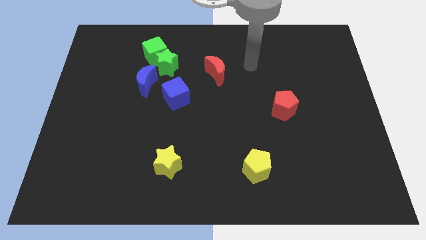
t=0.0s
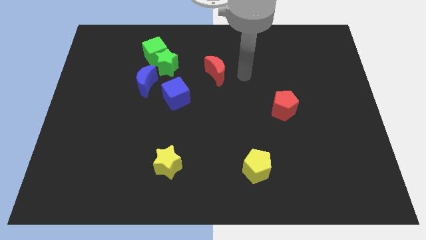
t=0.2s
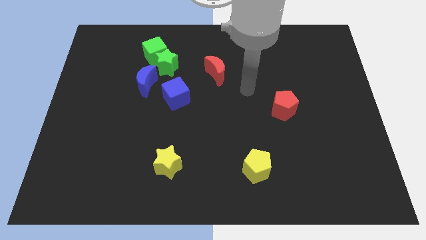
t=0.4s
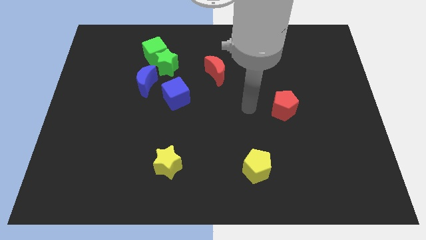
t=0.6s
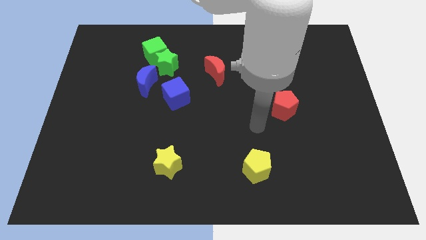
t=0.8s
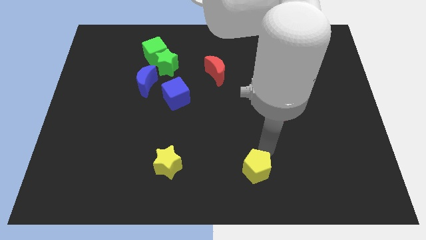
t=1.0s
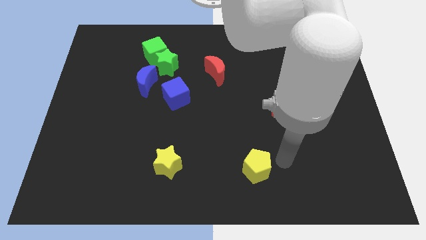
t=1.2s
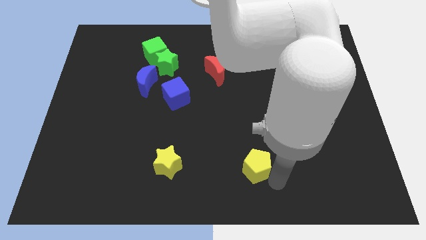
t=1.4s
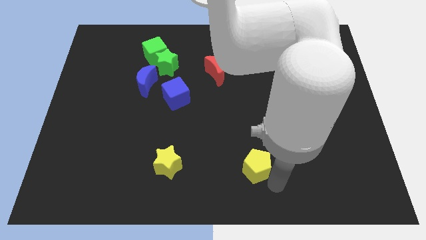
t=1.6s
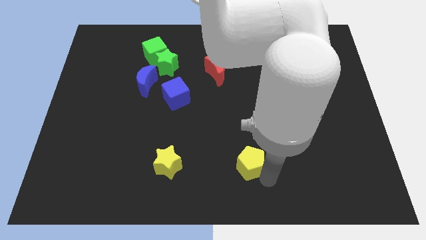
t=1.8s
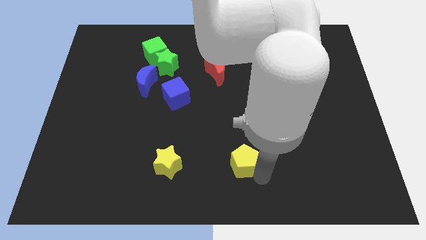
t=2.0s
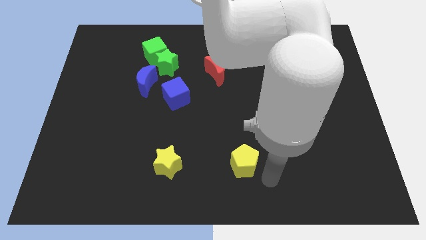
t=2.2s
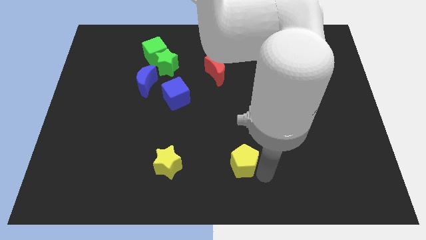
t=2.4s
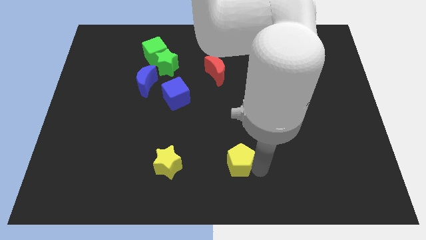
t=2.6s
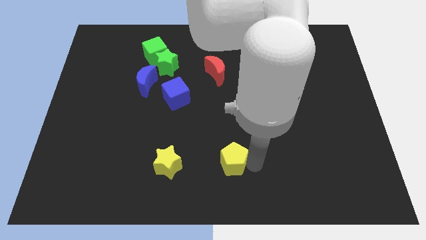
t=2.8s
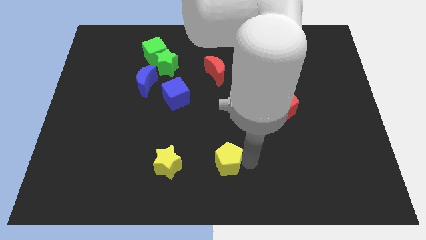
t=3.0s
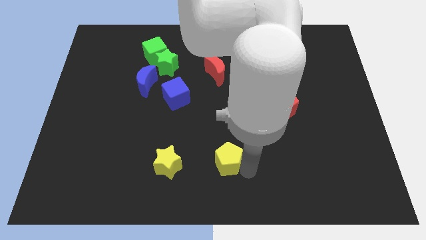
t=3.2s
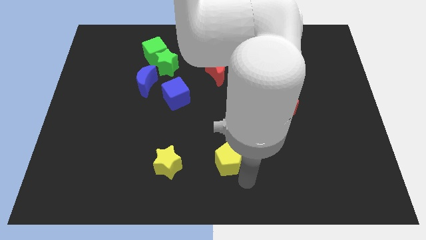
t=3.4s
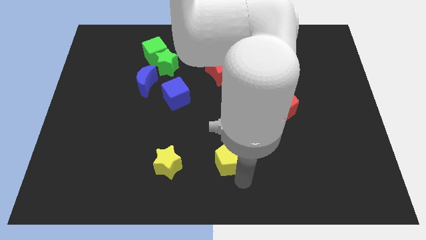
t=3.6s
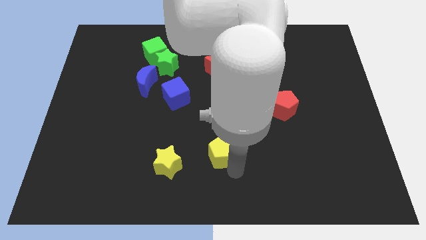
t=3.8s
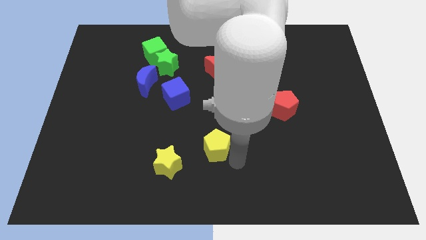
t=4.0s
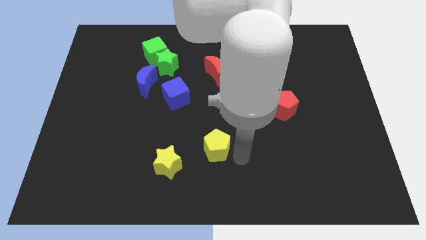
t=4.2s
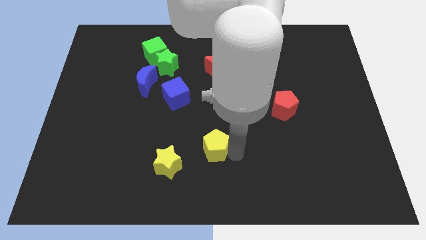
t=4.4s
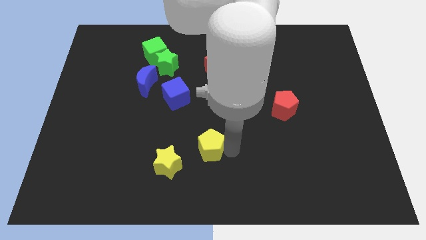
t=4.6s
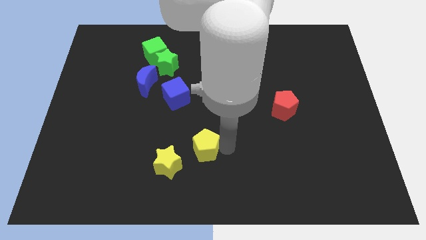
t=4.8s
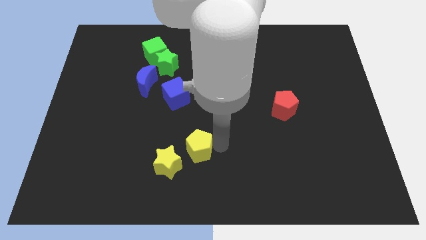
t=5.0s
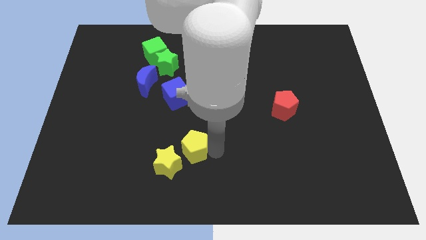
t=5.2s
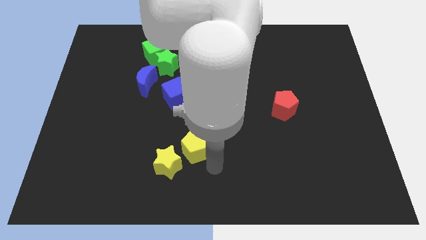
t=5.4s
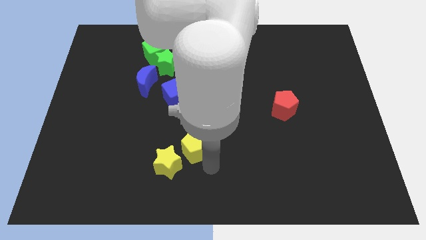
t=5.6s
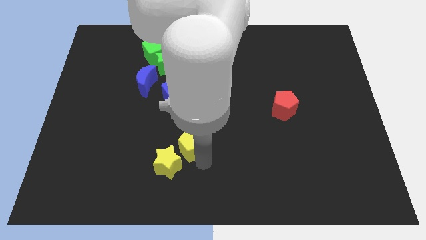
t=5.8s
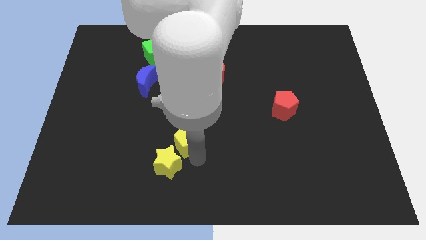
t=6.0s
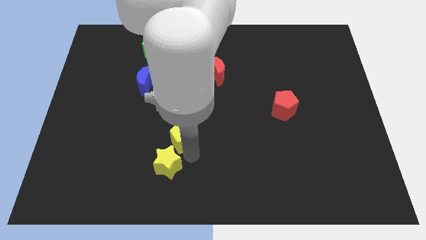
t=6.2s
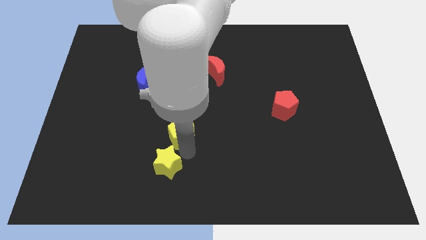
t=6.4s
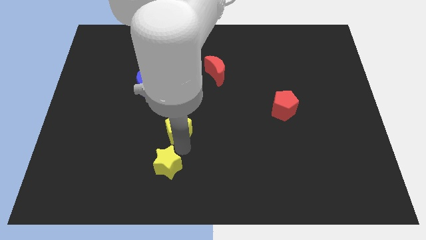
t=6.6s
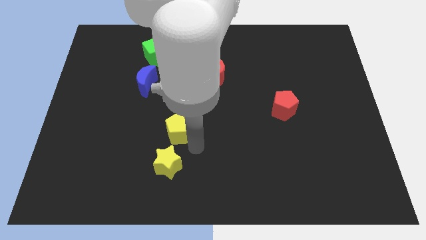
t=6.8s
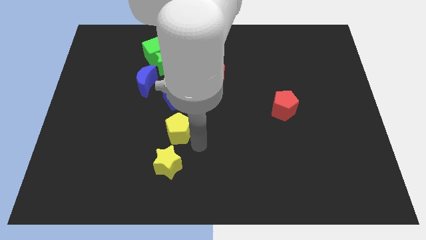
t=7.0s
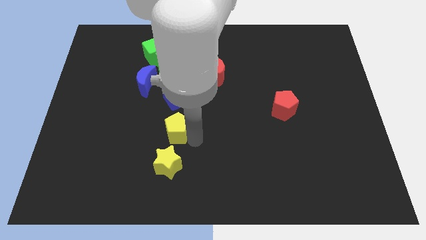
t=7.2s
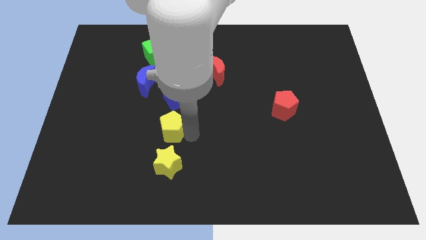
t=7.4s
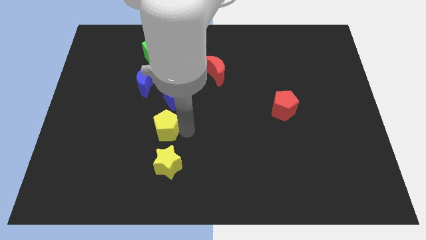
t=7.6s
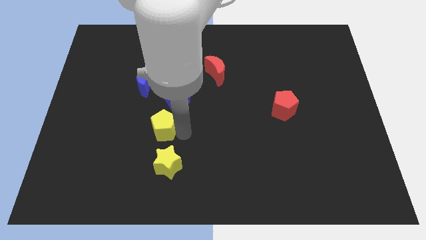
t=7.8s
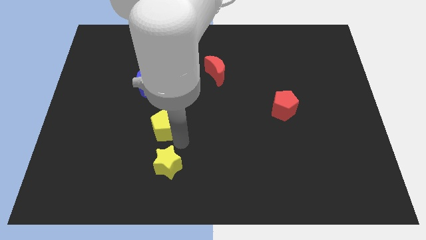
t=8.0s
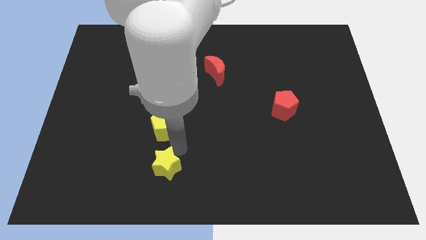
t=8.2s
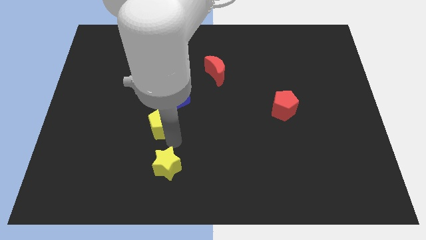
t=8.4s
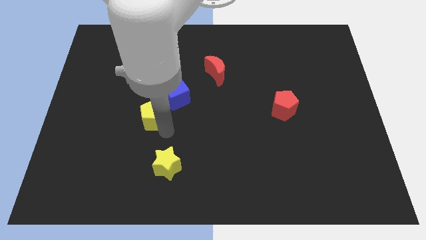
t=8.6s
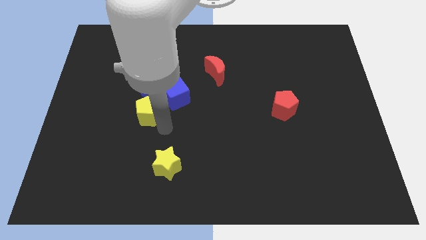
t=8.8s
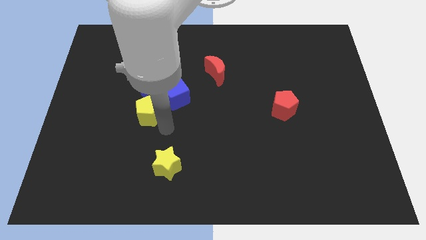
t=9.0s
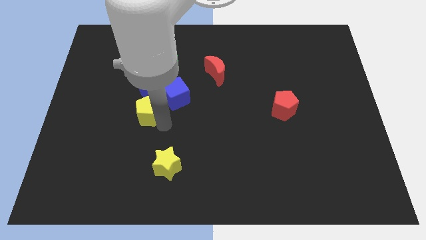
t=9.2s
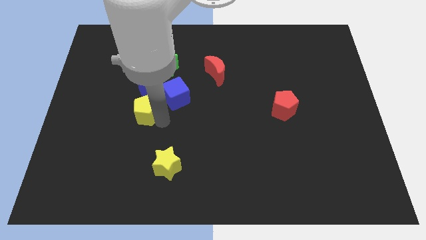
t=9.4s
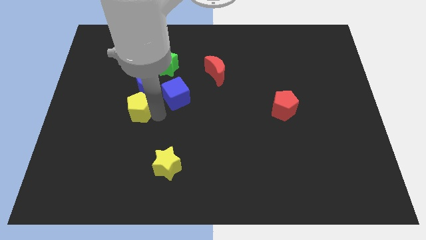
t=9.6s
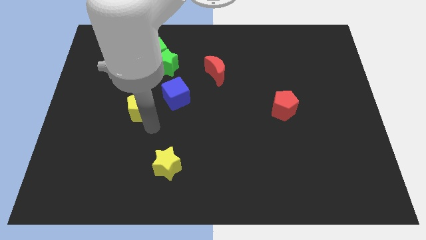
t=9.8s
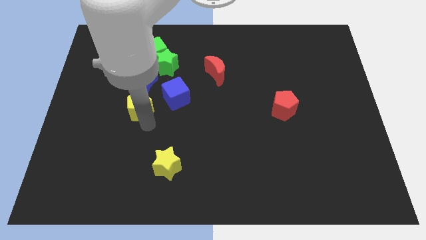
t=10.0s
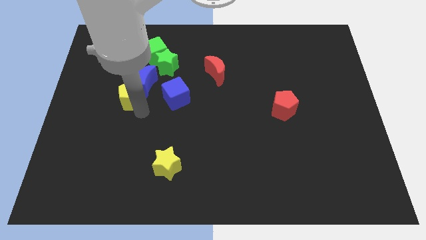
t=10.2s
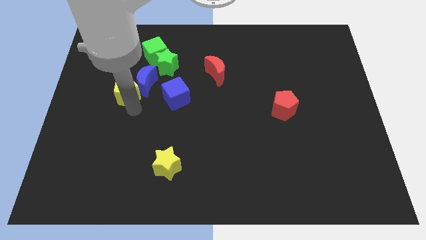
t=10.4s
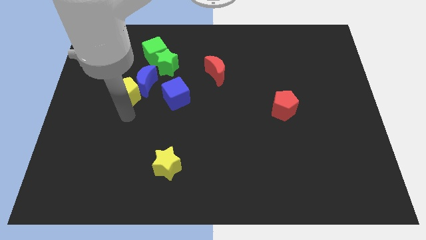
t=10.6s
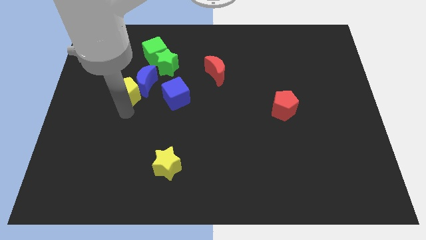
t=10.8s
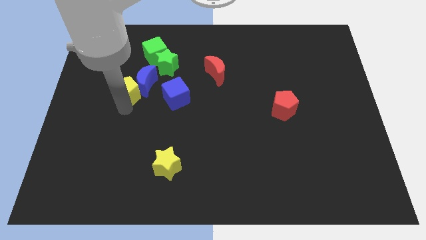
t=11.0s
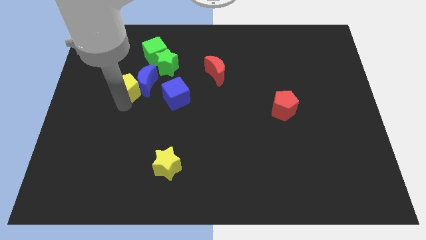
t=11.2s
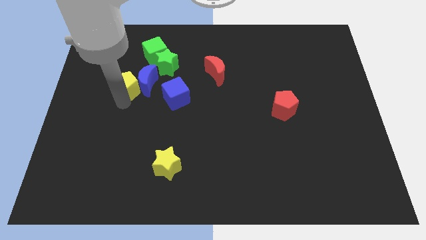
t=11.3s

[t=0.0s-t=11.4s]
slide the yellow pentagon diagonally up and to the left of the blue moon

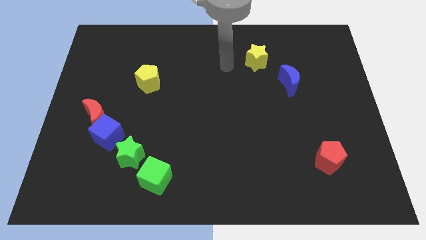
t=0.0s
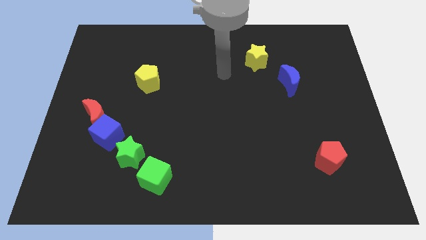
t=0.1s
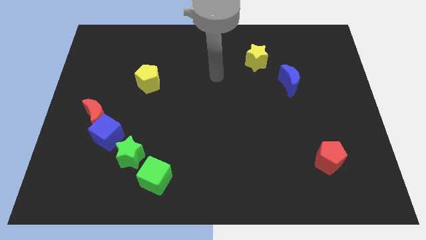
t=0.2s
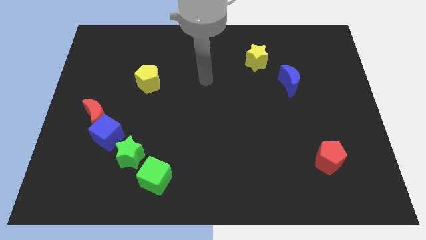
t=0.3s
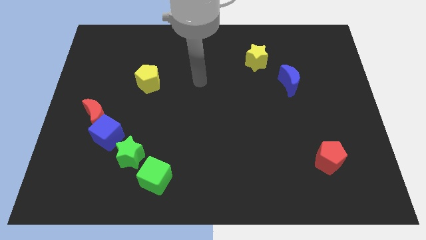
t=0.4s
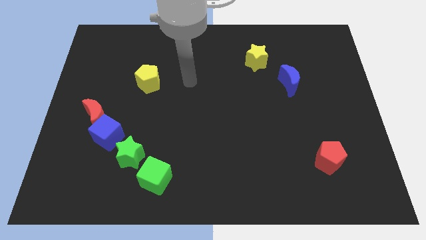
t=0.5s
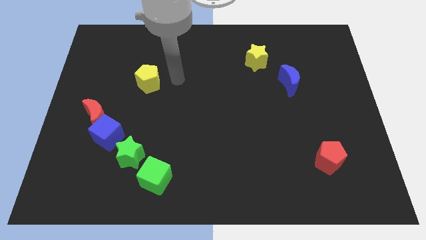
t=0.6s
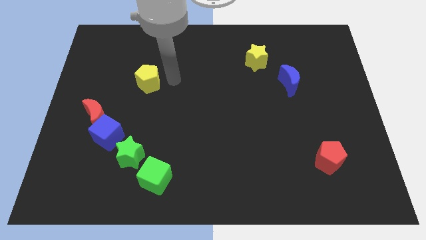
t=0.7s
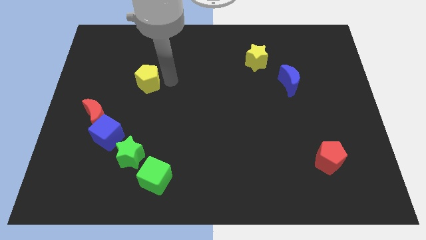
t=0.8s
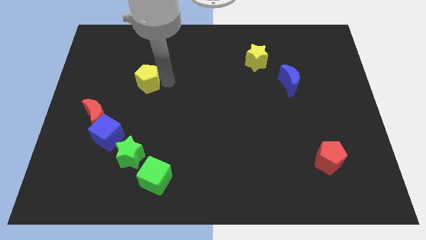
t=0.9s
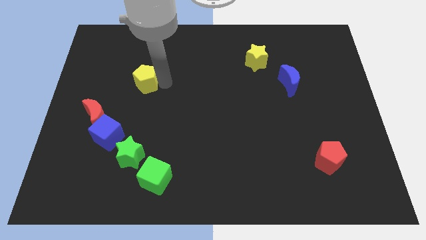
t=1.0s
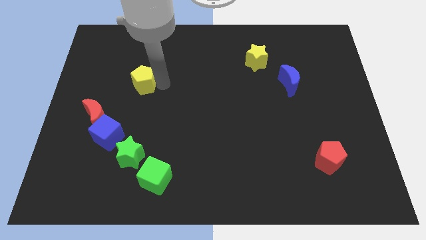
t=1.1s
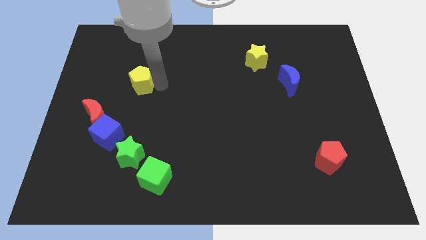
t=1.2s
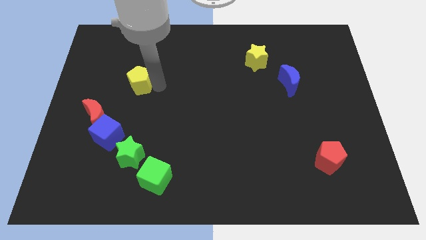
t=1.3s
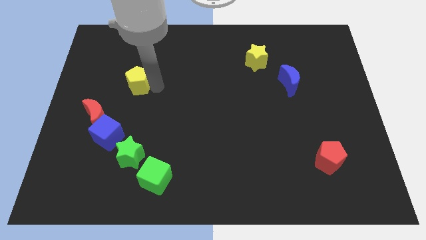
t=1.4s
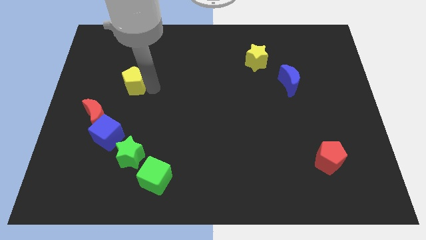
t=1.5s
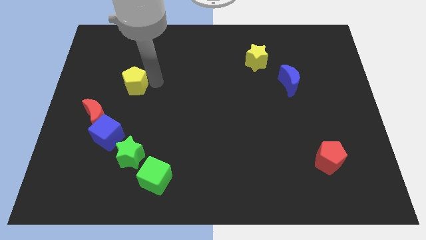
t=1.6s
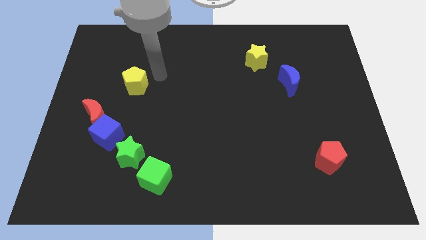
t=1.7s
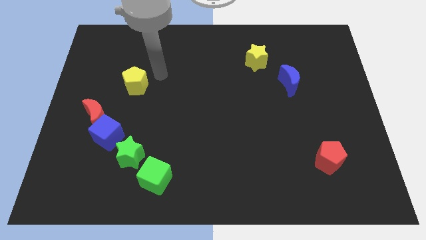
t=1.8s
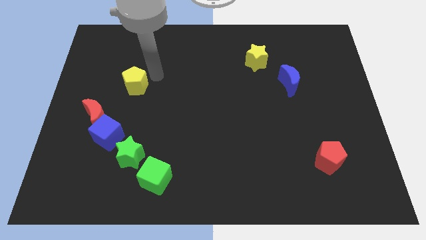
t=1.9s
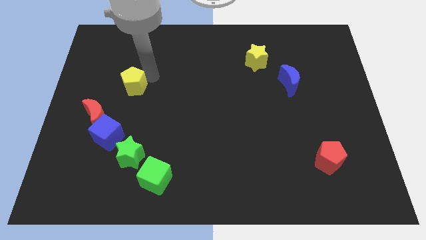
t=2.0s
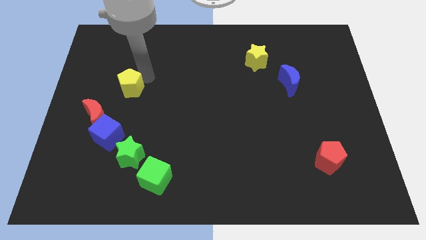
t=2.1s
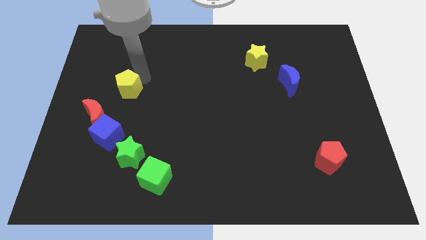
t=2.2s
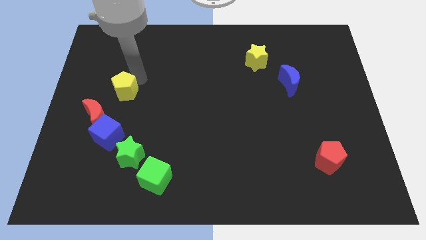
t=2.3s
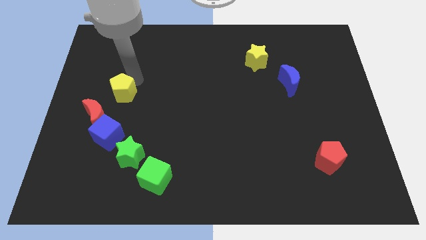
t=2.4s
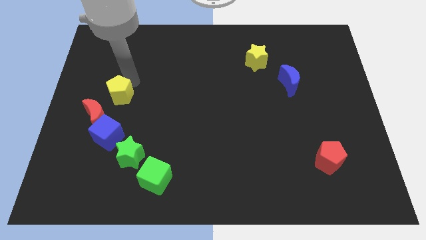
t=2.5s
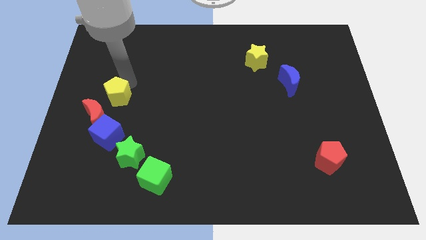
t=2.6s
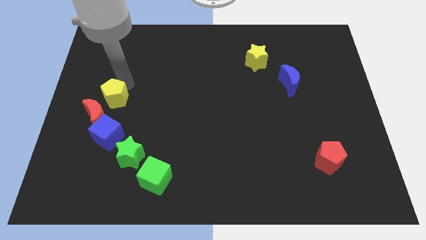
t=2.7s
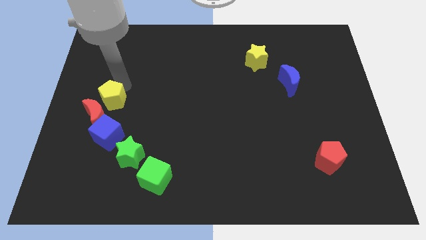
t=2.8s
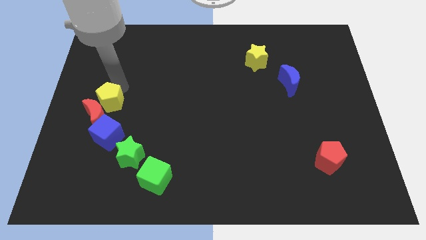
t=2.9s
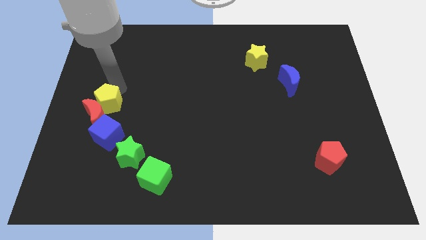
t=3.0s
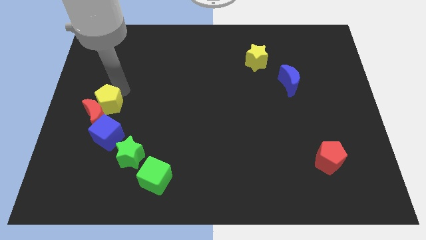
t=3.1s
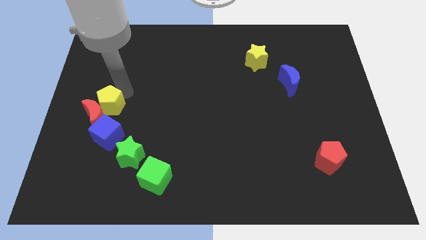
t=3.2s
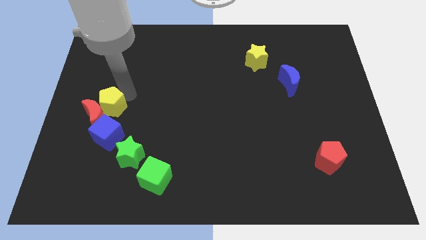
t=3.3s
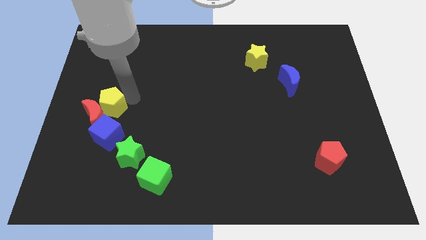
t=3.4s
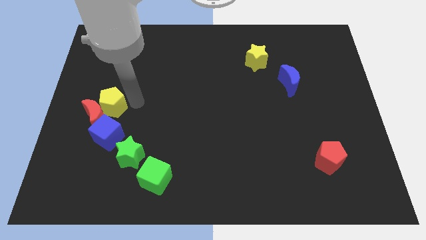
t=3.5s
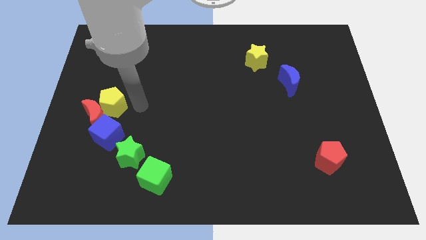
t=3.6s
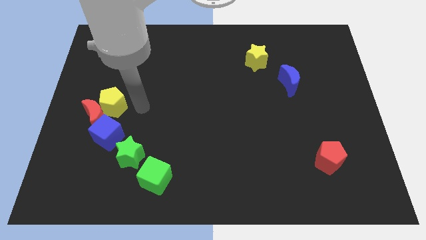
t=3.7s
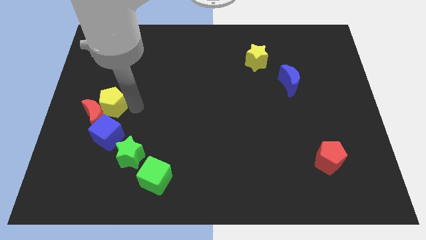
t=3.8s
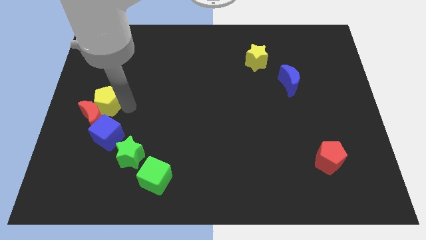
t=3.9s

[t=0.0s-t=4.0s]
push the yellow pentagon diagonally up and to the left of the blue cube
